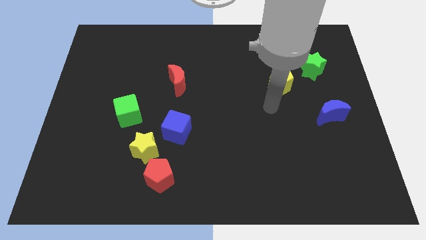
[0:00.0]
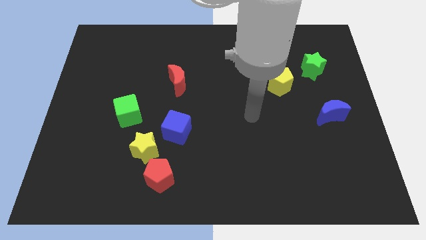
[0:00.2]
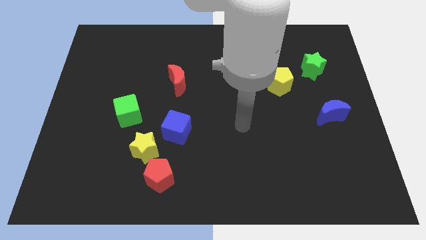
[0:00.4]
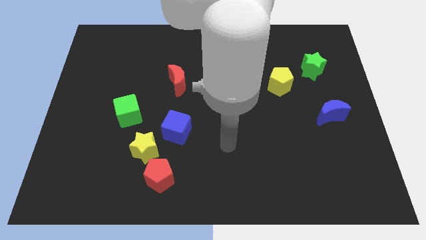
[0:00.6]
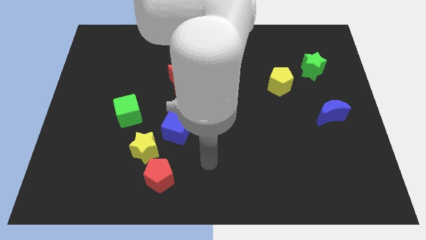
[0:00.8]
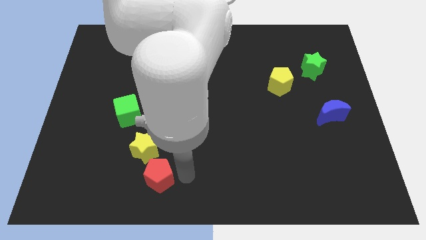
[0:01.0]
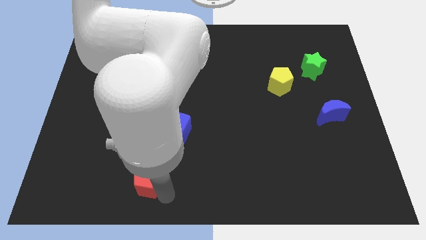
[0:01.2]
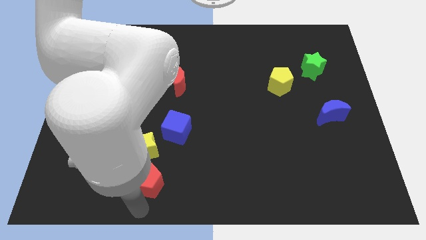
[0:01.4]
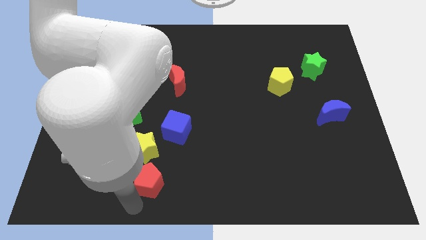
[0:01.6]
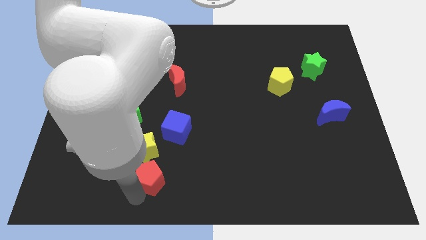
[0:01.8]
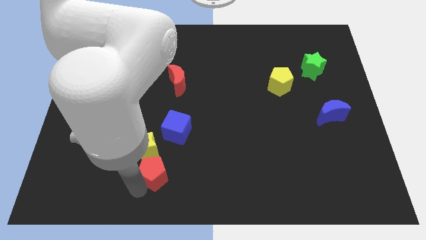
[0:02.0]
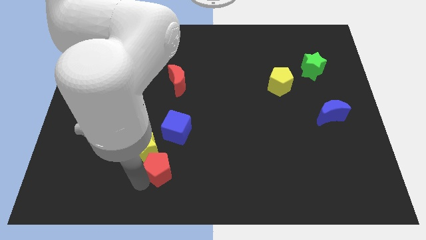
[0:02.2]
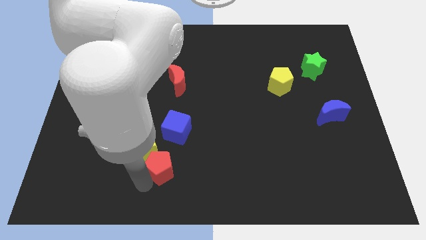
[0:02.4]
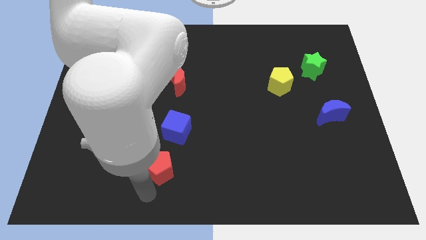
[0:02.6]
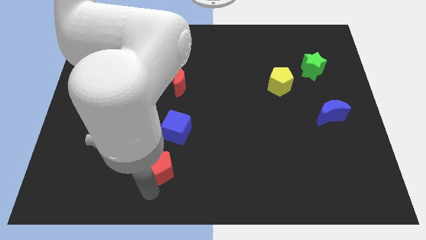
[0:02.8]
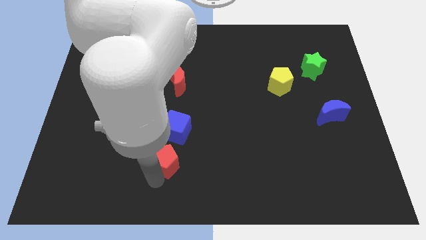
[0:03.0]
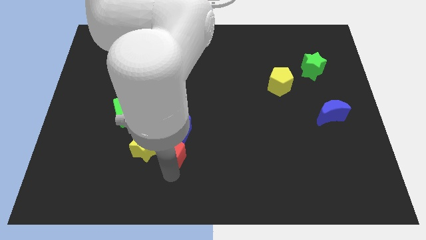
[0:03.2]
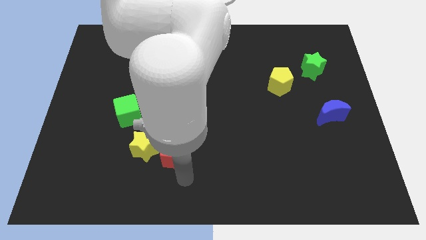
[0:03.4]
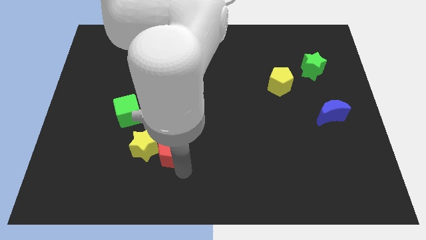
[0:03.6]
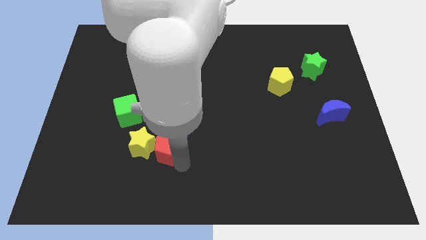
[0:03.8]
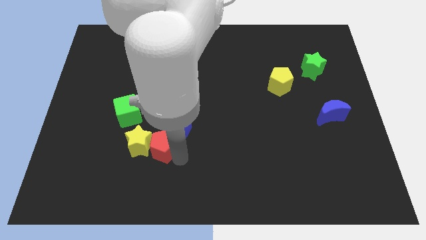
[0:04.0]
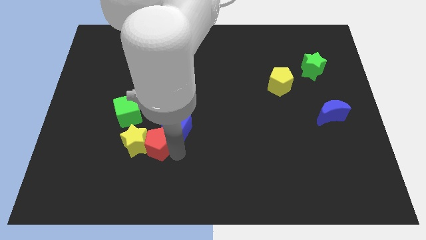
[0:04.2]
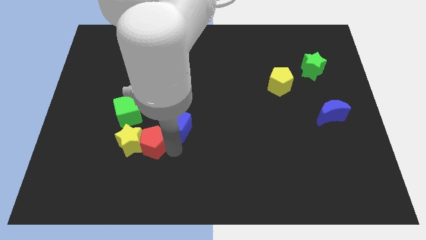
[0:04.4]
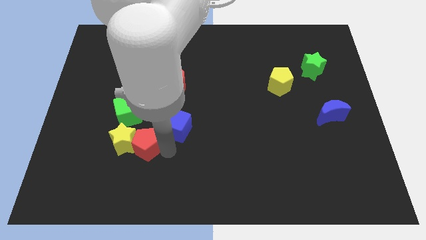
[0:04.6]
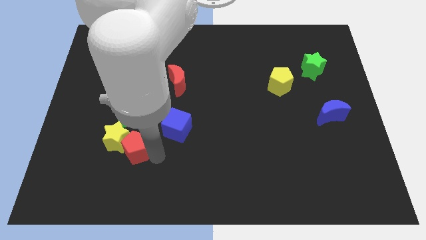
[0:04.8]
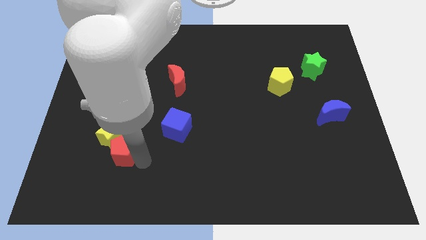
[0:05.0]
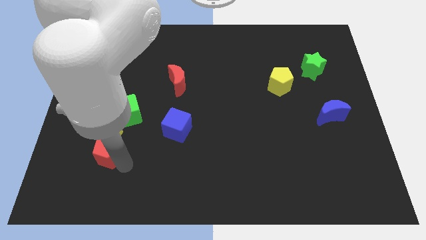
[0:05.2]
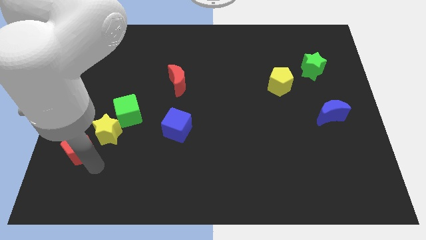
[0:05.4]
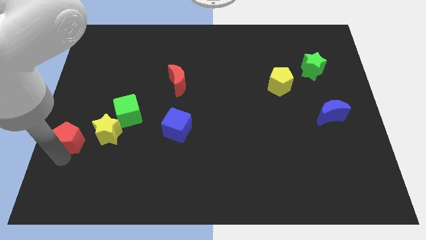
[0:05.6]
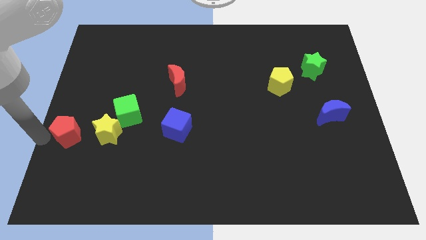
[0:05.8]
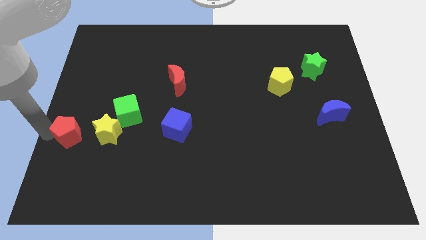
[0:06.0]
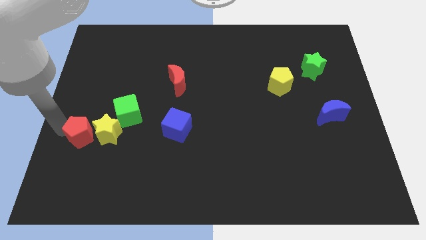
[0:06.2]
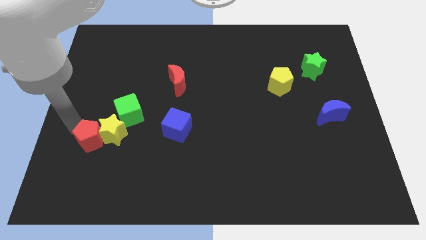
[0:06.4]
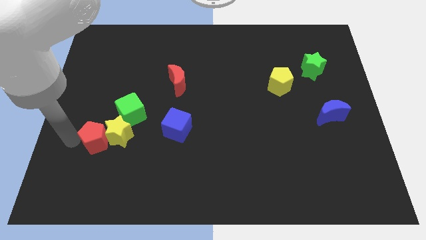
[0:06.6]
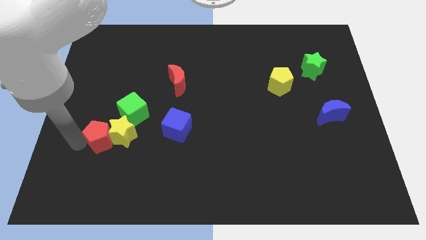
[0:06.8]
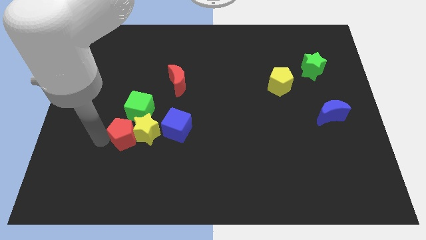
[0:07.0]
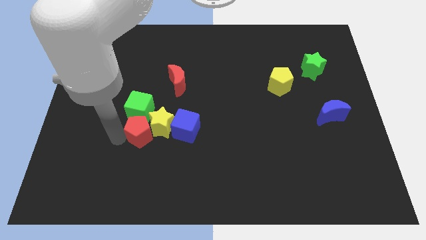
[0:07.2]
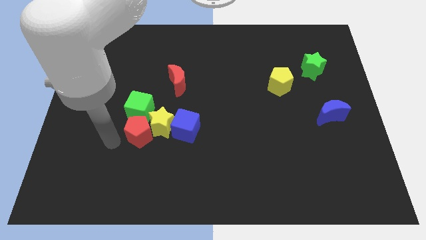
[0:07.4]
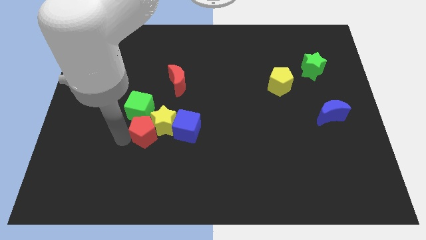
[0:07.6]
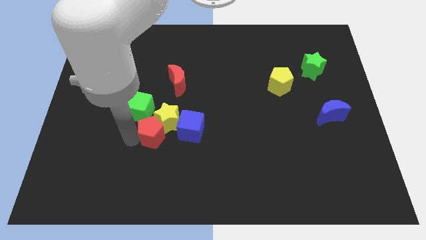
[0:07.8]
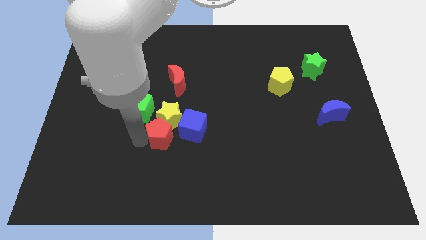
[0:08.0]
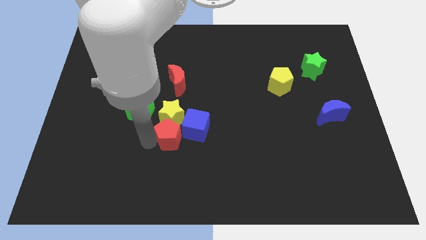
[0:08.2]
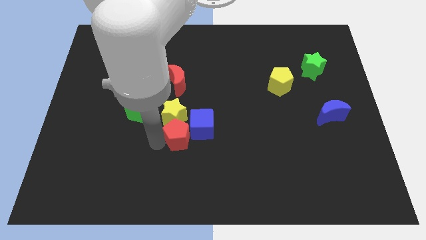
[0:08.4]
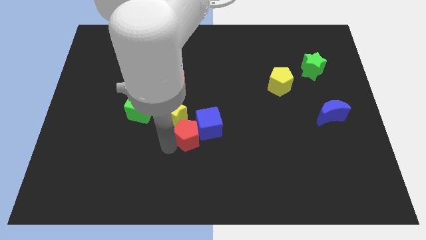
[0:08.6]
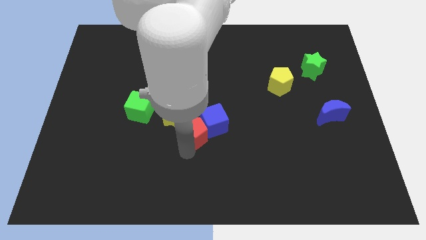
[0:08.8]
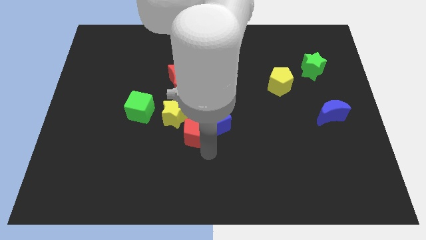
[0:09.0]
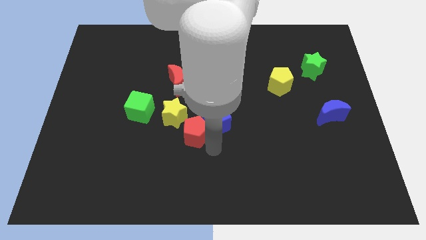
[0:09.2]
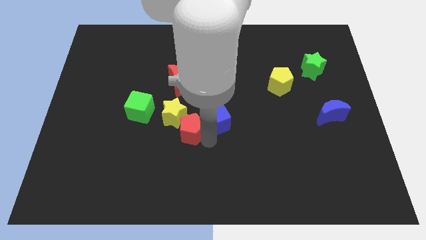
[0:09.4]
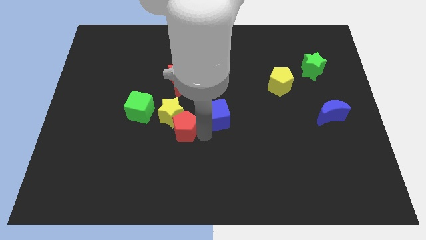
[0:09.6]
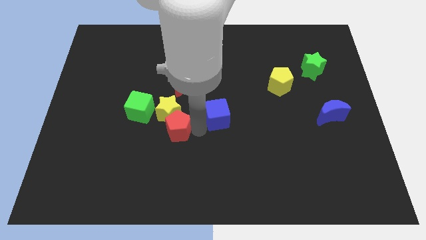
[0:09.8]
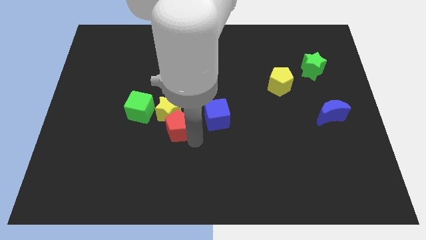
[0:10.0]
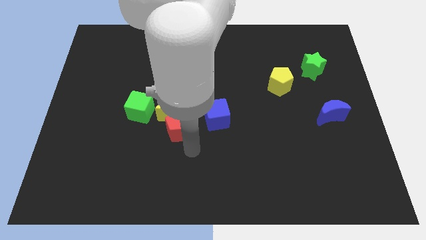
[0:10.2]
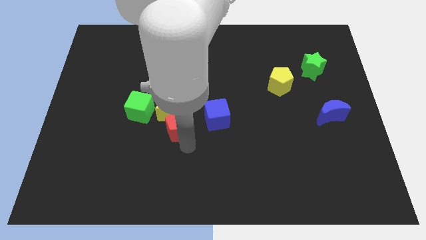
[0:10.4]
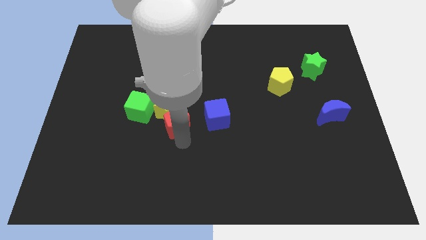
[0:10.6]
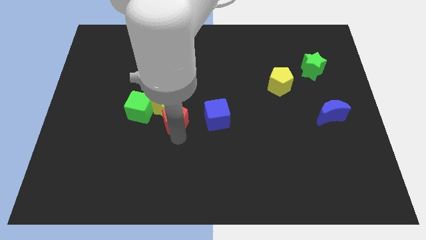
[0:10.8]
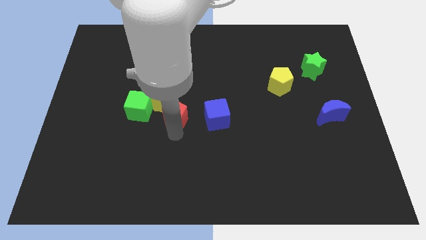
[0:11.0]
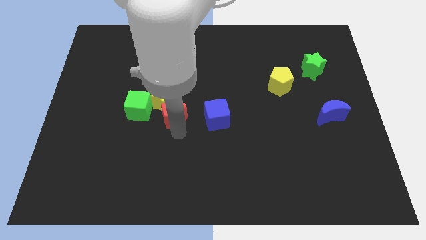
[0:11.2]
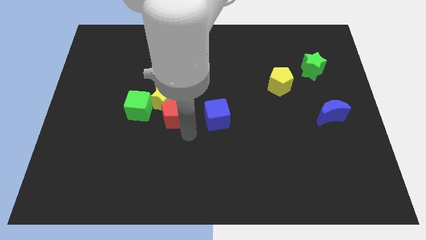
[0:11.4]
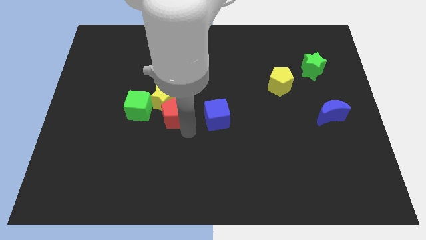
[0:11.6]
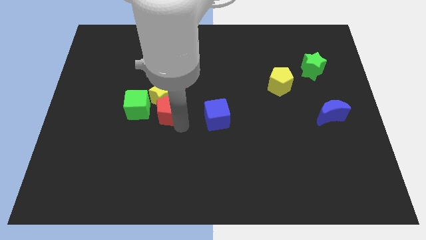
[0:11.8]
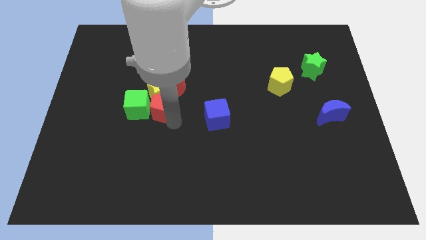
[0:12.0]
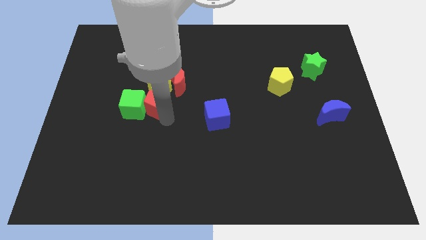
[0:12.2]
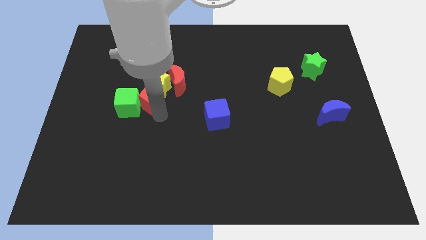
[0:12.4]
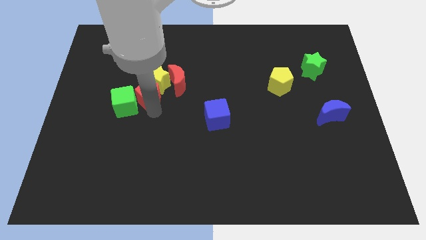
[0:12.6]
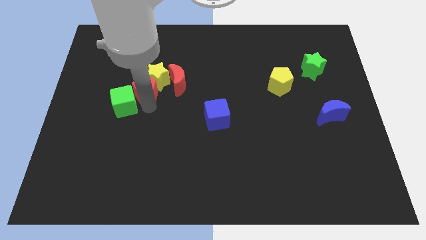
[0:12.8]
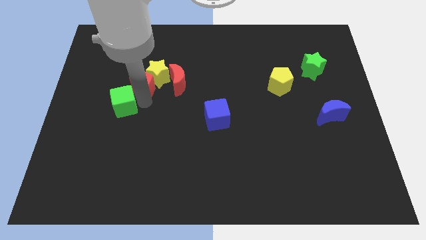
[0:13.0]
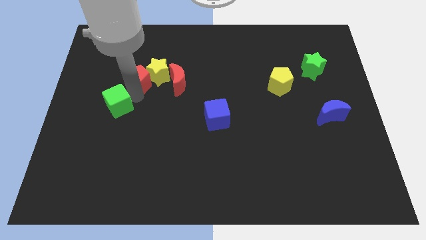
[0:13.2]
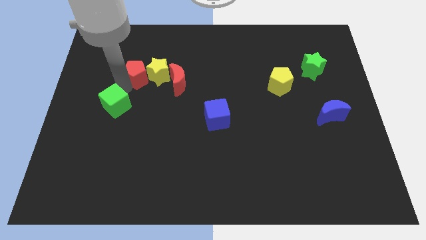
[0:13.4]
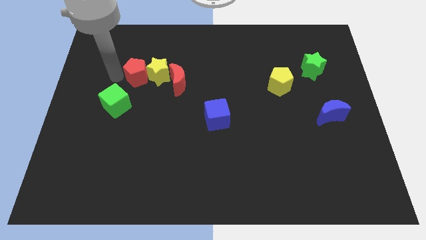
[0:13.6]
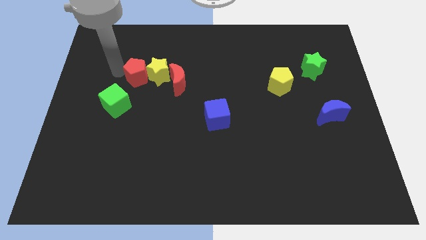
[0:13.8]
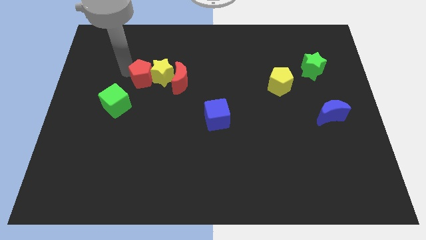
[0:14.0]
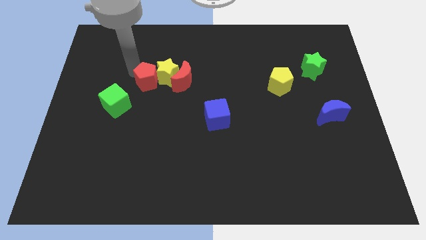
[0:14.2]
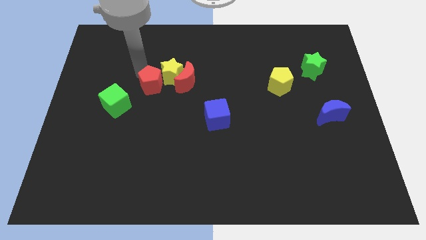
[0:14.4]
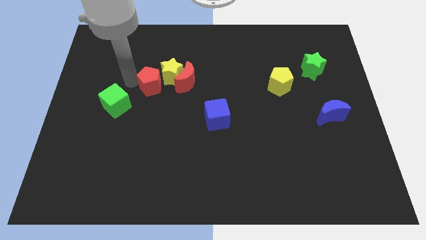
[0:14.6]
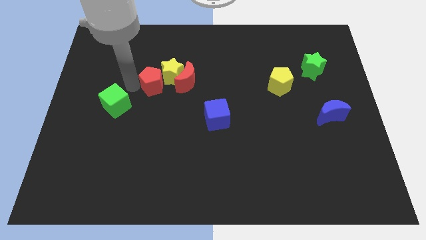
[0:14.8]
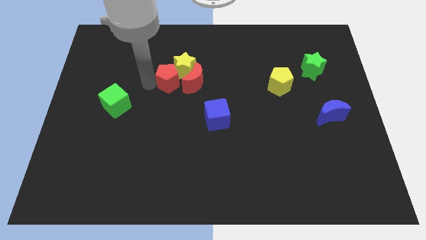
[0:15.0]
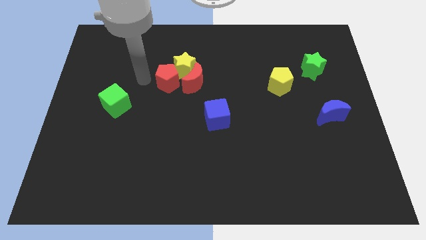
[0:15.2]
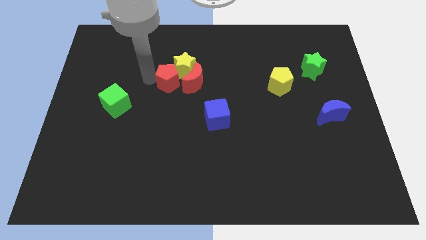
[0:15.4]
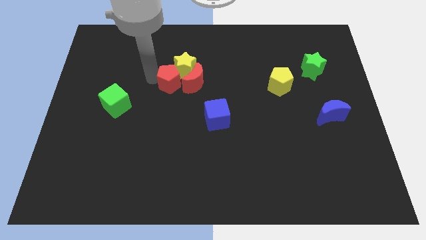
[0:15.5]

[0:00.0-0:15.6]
move the red pentagon next to the red moon
